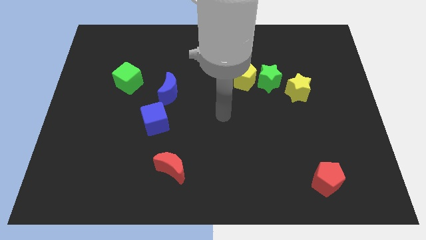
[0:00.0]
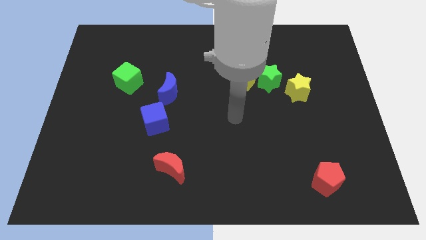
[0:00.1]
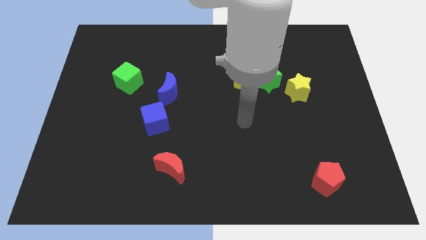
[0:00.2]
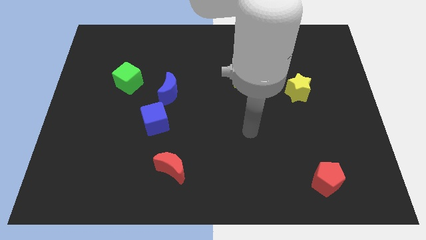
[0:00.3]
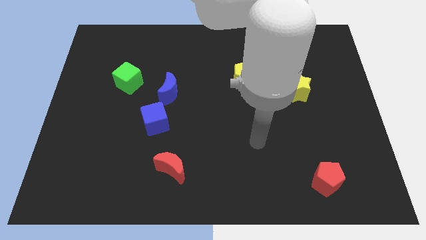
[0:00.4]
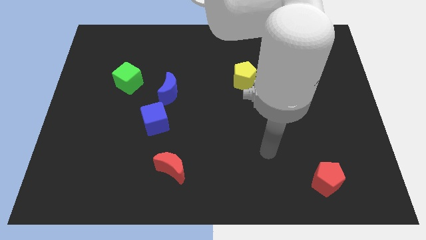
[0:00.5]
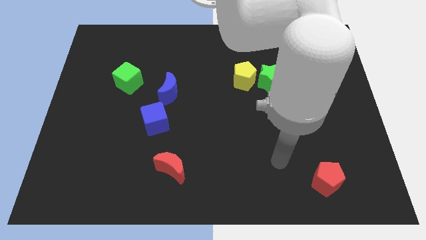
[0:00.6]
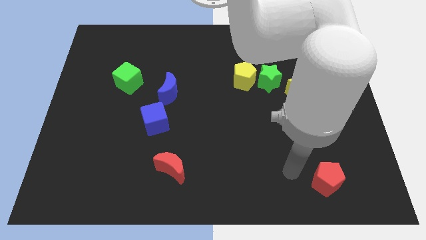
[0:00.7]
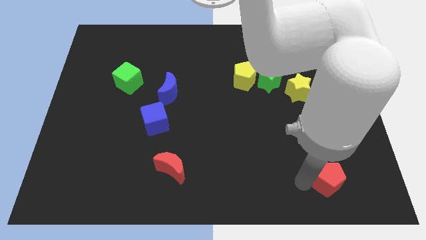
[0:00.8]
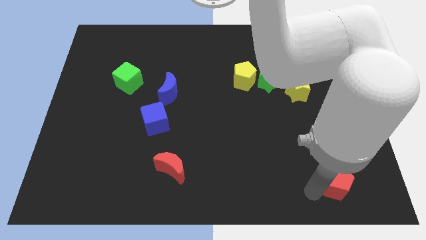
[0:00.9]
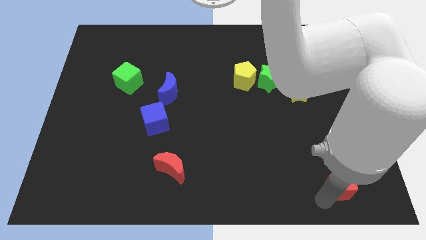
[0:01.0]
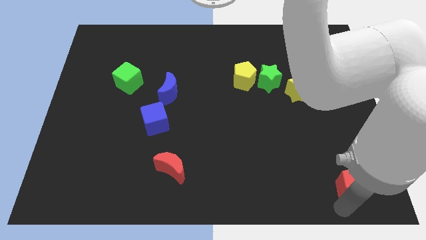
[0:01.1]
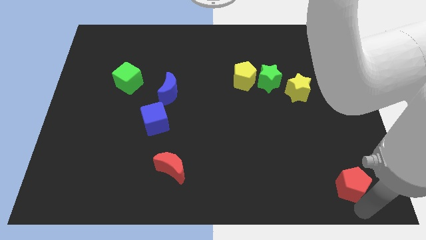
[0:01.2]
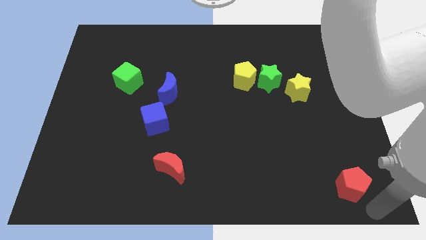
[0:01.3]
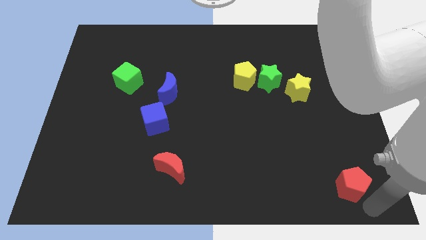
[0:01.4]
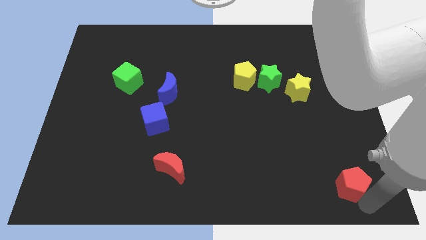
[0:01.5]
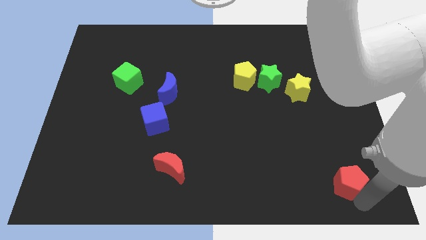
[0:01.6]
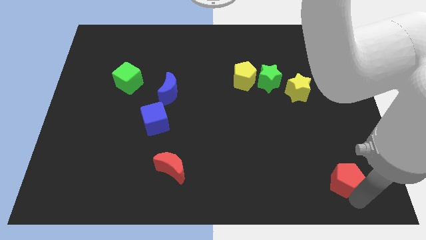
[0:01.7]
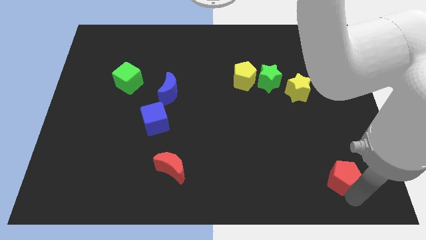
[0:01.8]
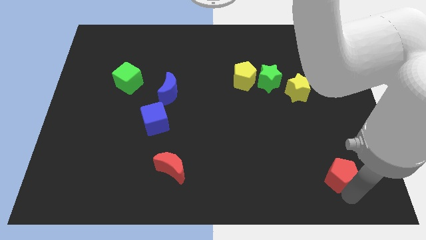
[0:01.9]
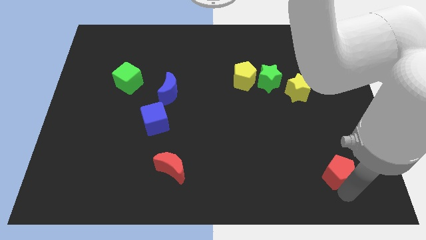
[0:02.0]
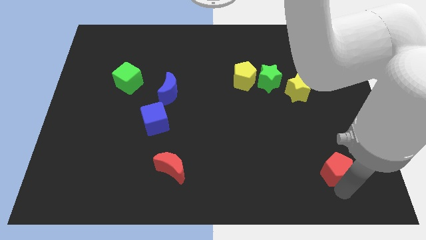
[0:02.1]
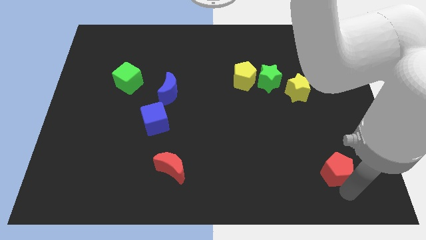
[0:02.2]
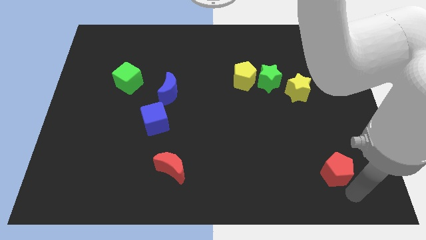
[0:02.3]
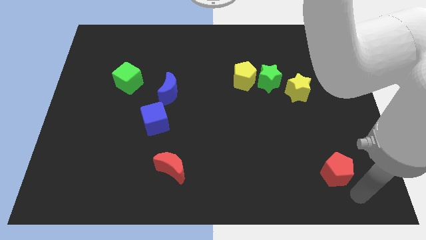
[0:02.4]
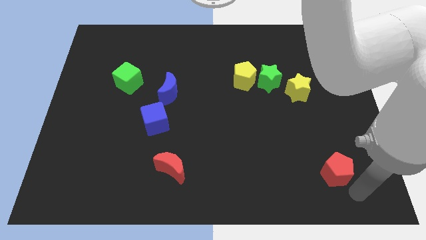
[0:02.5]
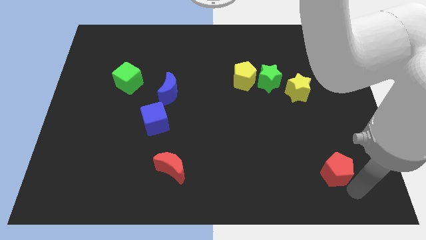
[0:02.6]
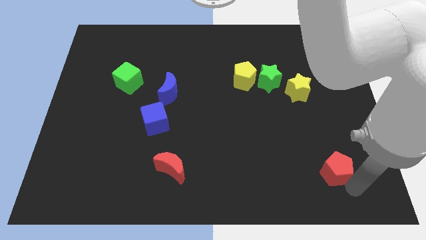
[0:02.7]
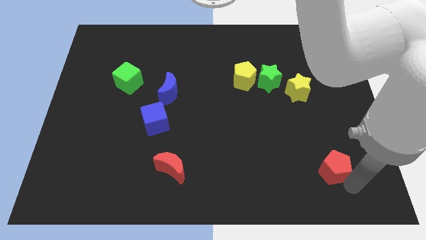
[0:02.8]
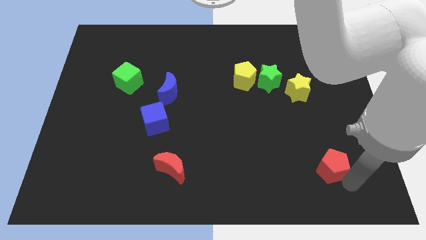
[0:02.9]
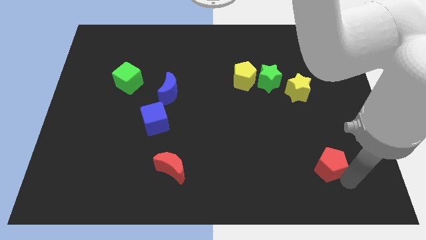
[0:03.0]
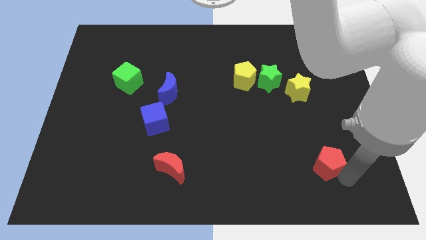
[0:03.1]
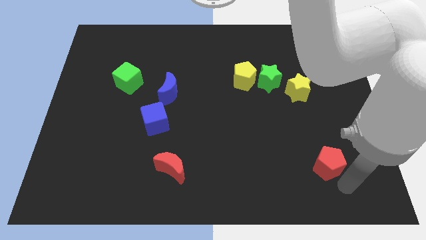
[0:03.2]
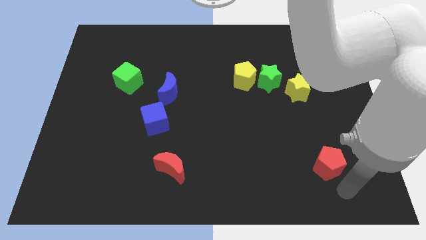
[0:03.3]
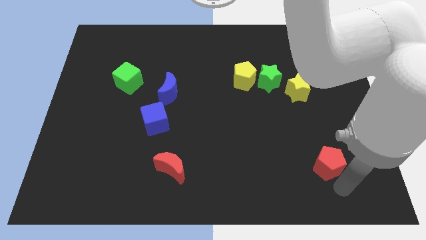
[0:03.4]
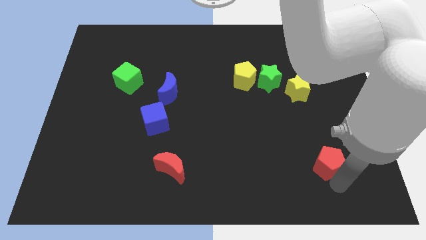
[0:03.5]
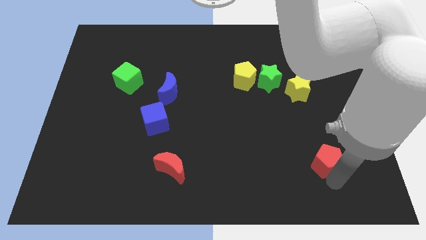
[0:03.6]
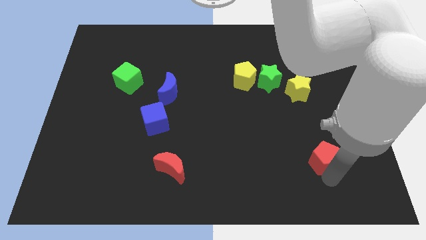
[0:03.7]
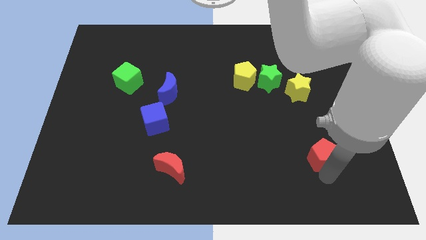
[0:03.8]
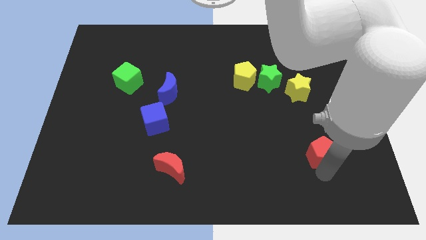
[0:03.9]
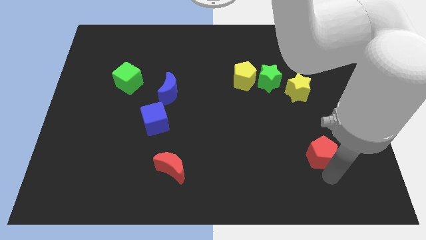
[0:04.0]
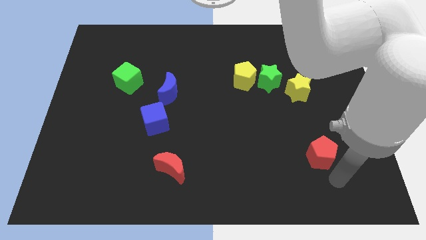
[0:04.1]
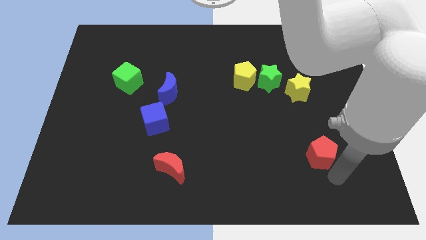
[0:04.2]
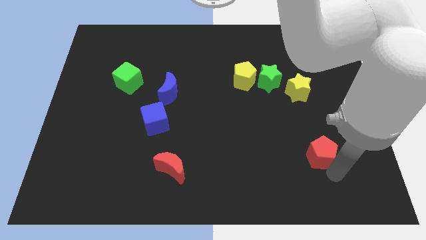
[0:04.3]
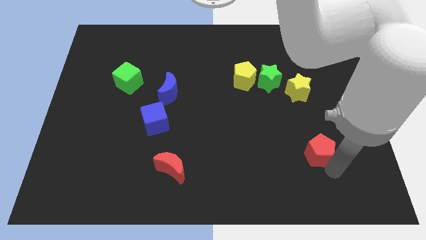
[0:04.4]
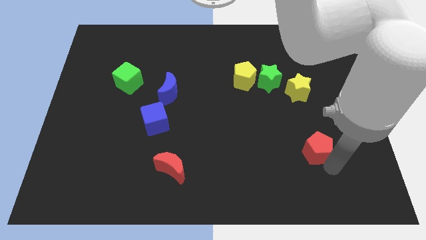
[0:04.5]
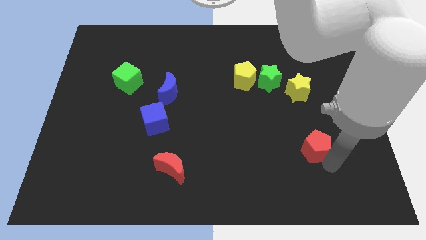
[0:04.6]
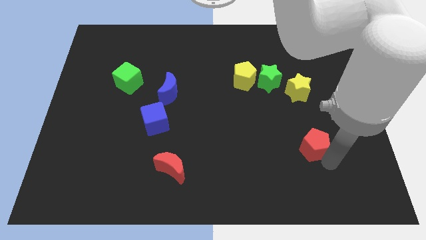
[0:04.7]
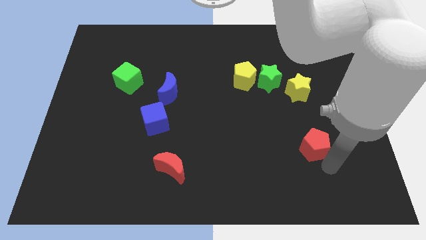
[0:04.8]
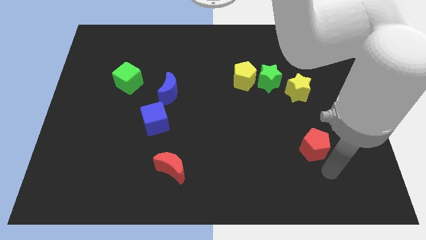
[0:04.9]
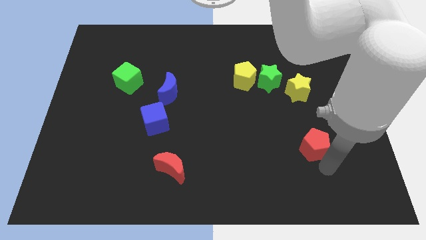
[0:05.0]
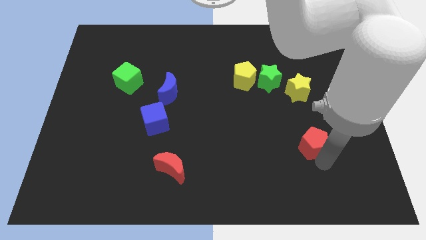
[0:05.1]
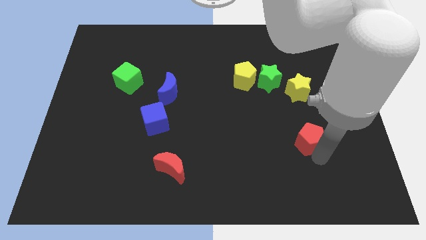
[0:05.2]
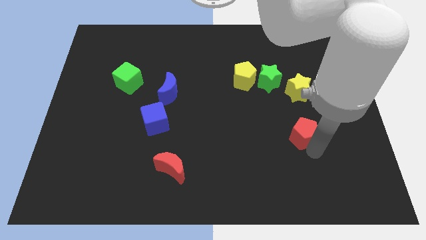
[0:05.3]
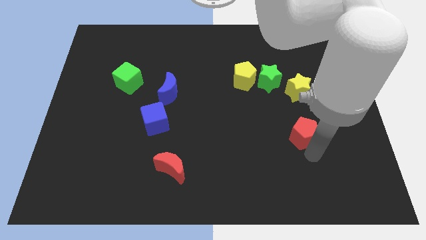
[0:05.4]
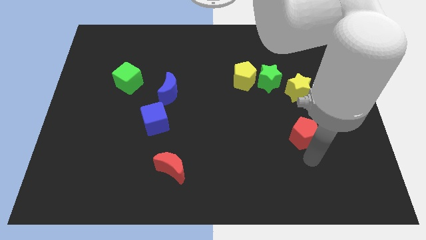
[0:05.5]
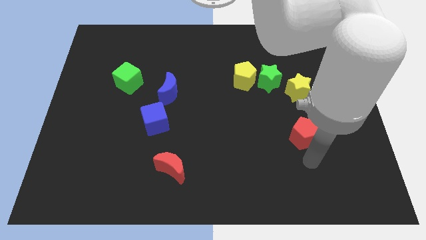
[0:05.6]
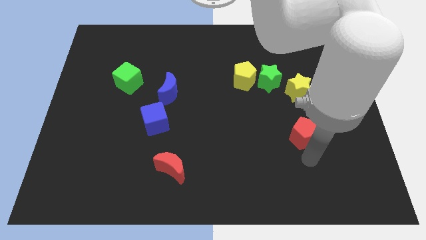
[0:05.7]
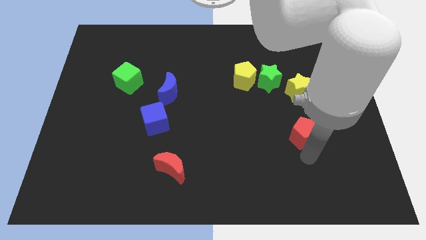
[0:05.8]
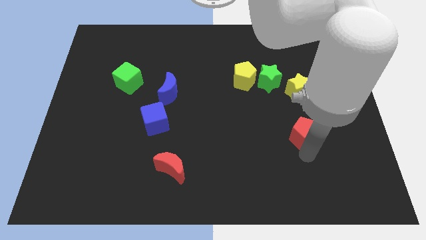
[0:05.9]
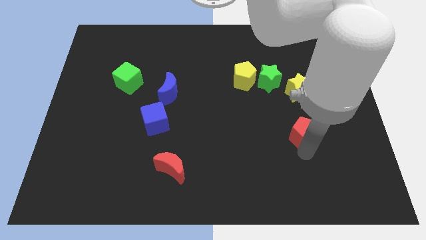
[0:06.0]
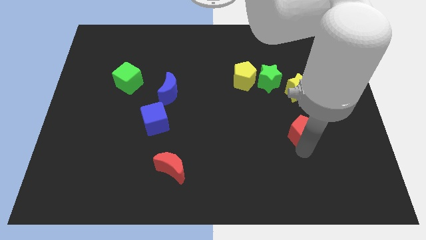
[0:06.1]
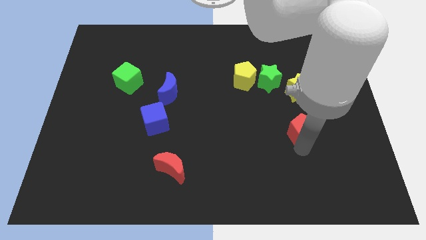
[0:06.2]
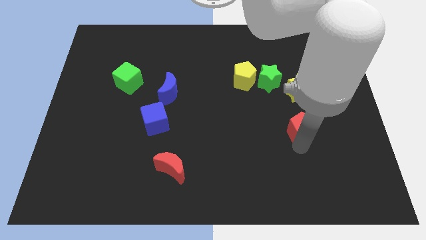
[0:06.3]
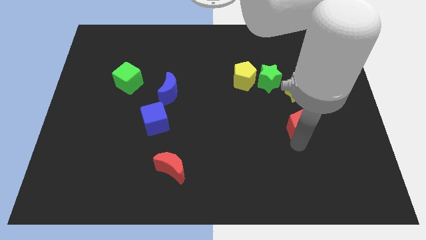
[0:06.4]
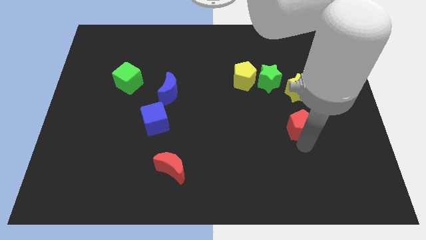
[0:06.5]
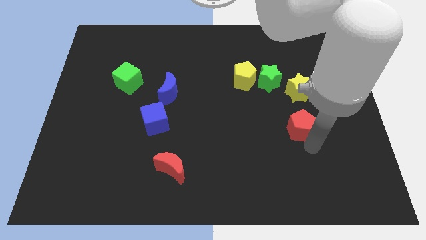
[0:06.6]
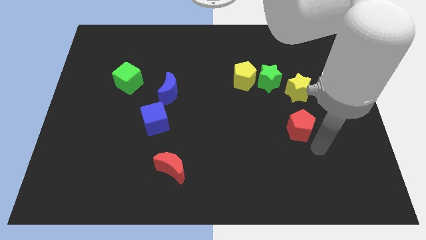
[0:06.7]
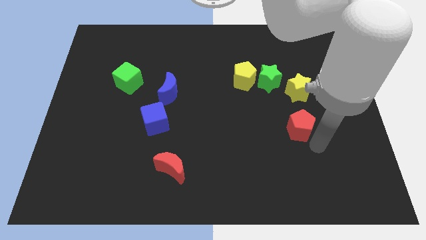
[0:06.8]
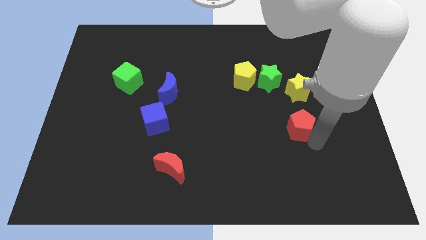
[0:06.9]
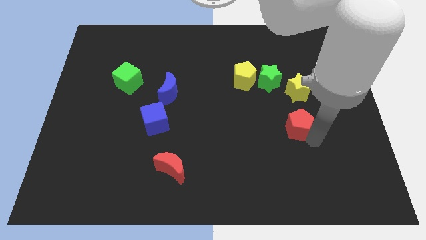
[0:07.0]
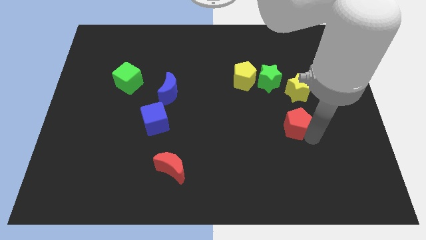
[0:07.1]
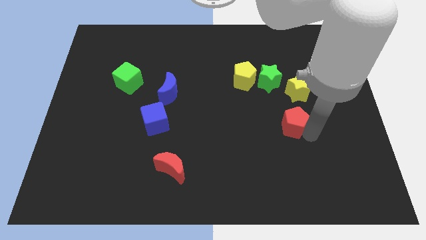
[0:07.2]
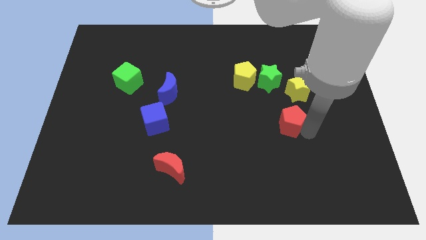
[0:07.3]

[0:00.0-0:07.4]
move the red pentagon to the bottom left side of the yellow star

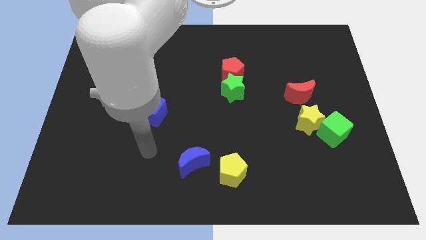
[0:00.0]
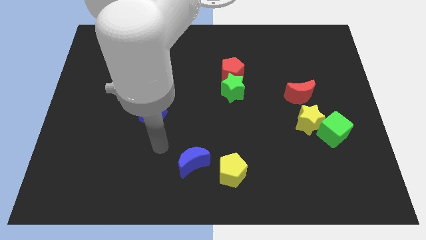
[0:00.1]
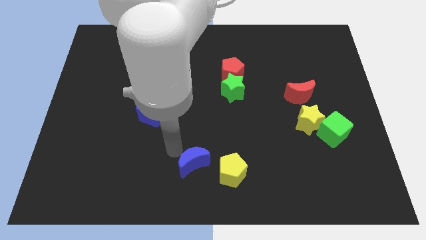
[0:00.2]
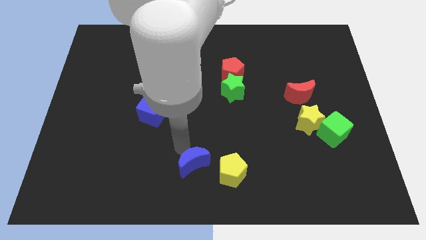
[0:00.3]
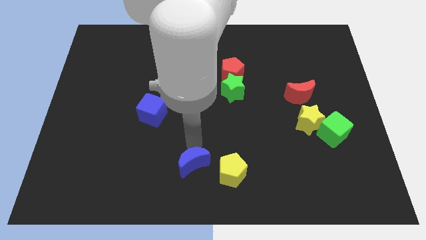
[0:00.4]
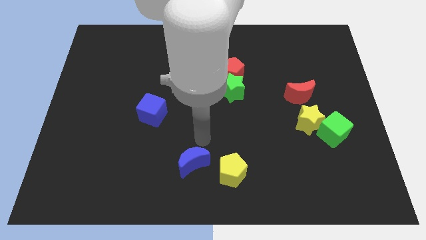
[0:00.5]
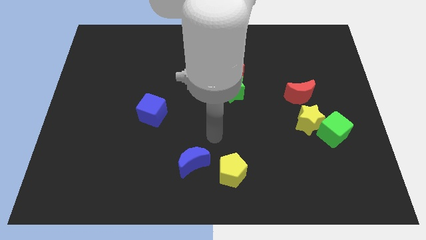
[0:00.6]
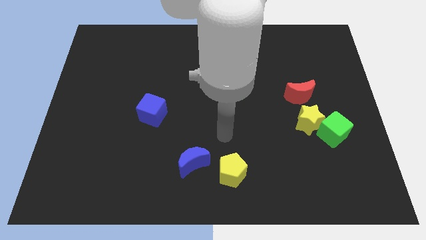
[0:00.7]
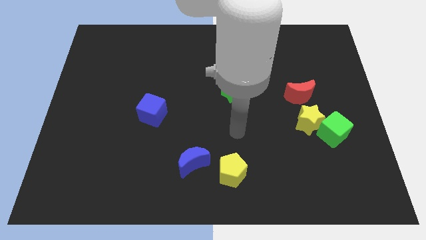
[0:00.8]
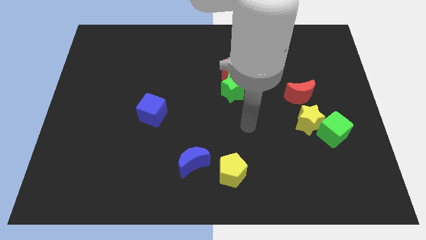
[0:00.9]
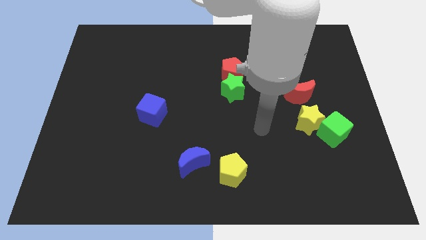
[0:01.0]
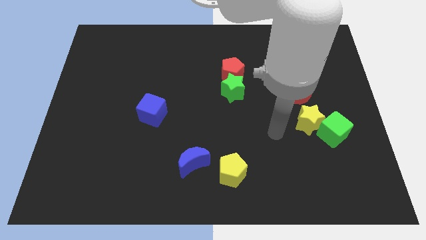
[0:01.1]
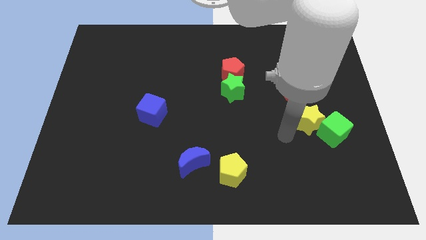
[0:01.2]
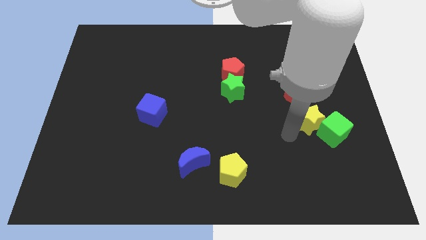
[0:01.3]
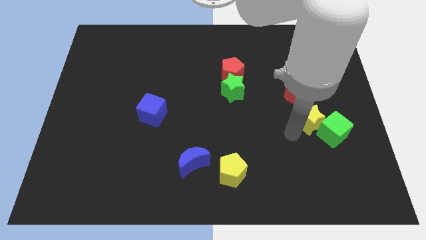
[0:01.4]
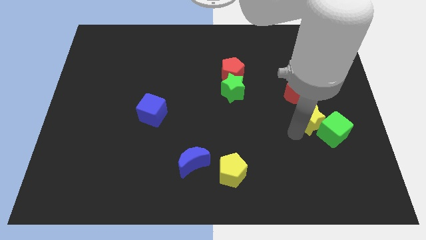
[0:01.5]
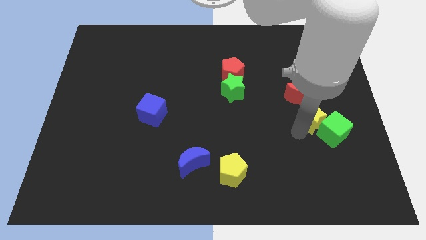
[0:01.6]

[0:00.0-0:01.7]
push the yellow star to the bottom right of the red moon
